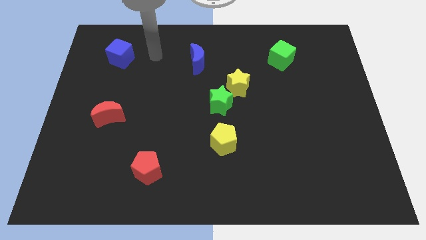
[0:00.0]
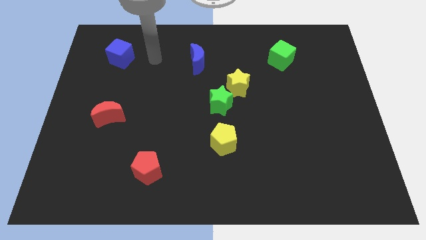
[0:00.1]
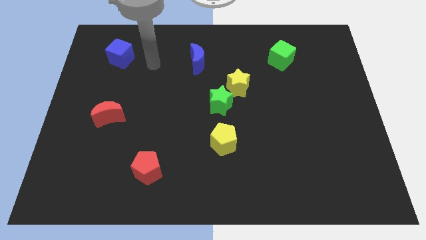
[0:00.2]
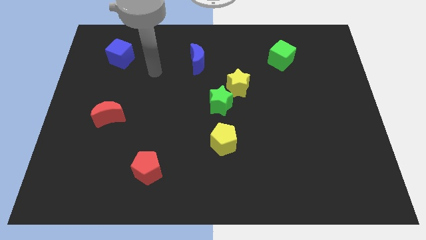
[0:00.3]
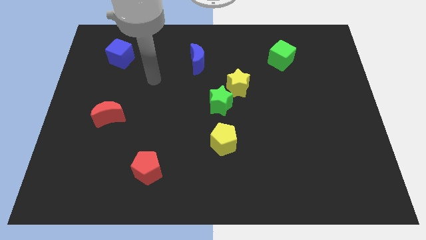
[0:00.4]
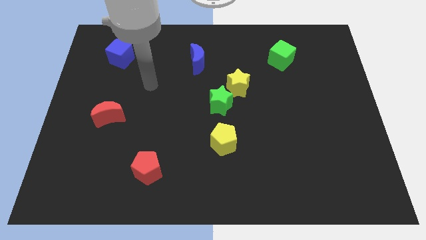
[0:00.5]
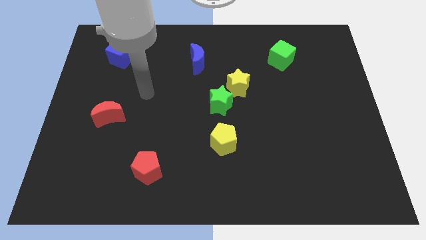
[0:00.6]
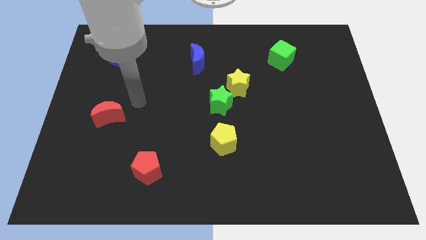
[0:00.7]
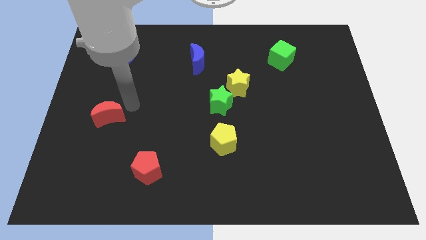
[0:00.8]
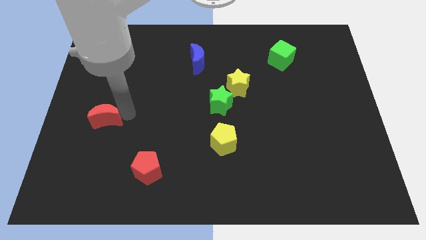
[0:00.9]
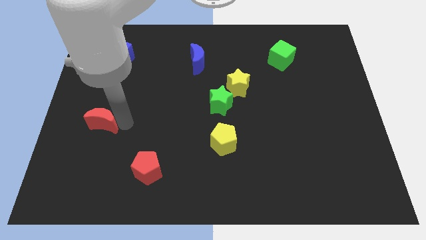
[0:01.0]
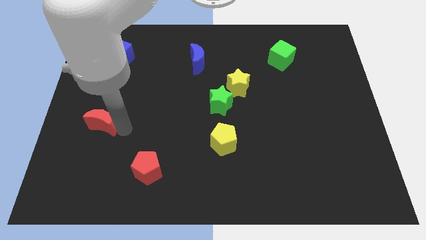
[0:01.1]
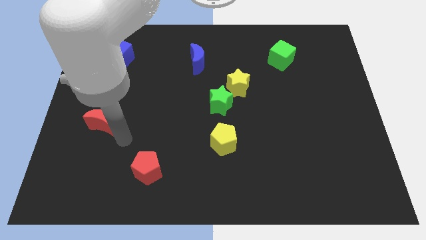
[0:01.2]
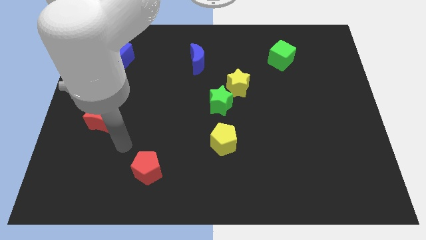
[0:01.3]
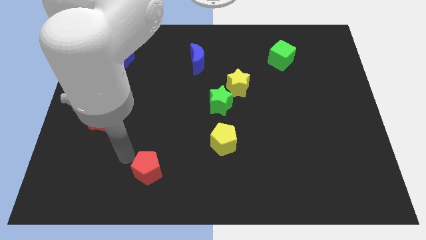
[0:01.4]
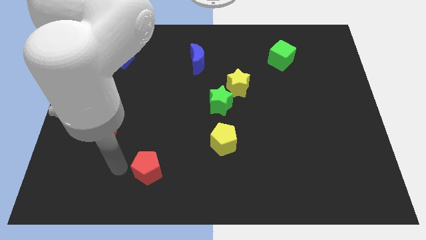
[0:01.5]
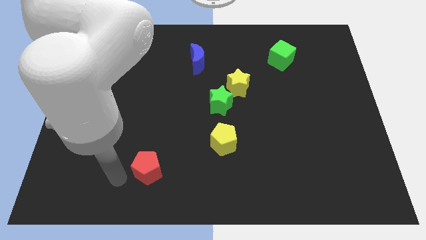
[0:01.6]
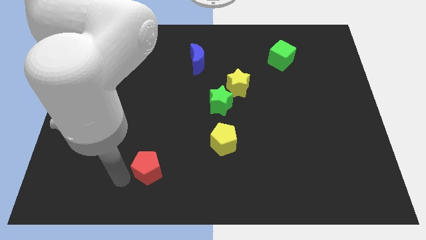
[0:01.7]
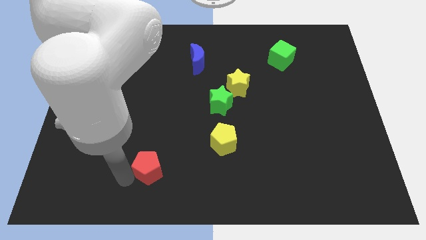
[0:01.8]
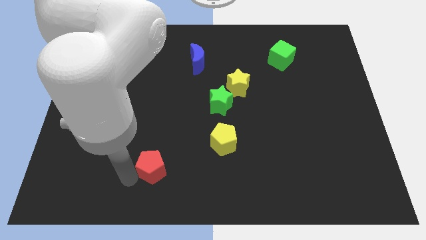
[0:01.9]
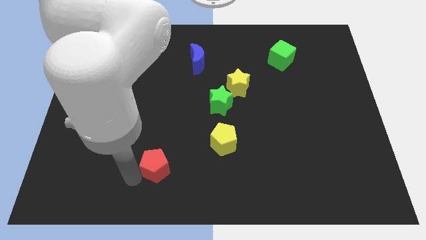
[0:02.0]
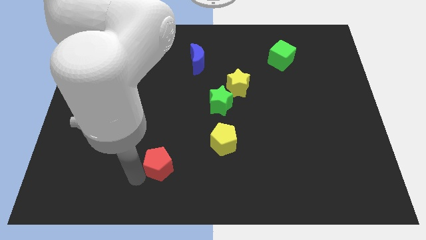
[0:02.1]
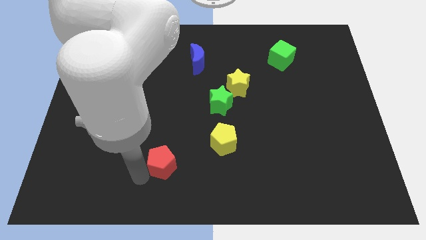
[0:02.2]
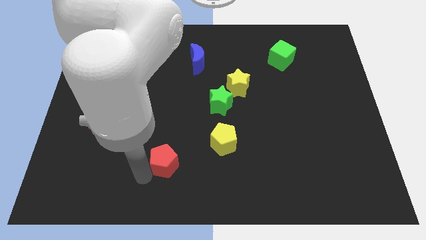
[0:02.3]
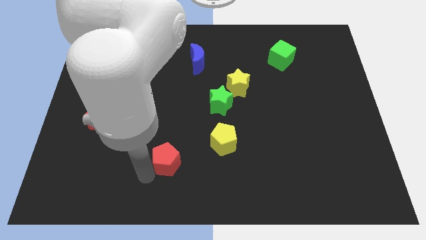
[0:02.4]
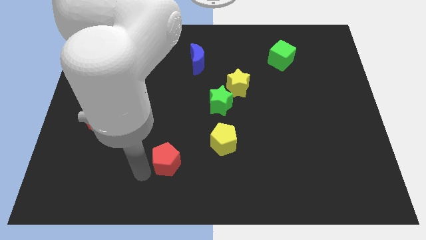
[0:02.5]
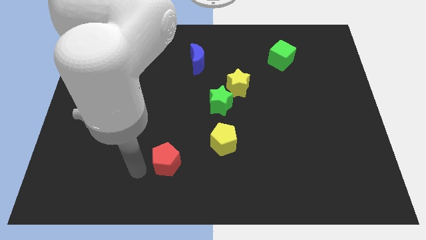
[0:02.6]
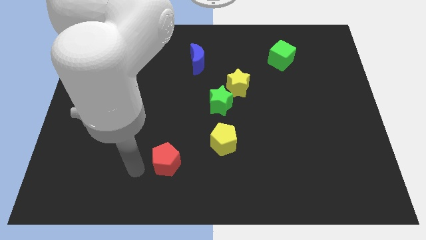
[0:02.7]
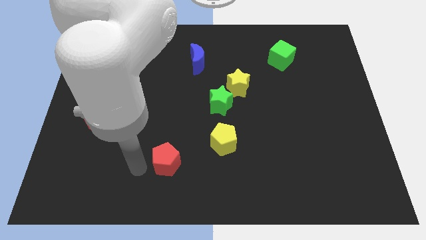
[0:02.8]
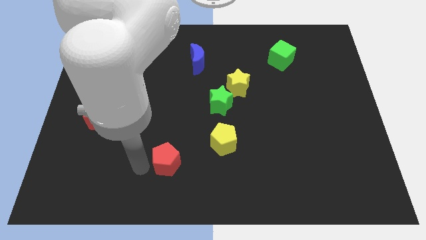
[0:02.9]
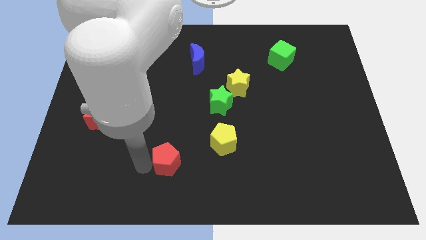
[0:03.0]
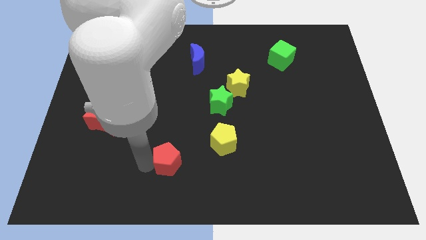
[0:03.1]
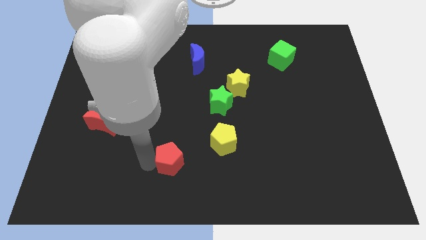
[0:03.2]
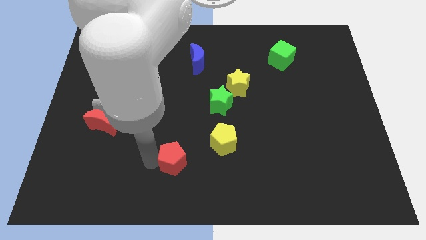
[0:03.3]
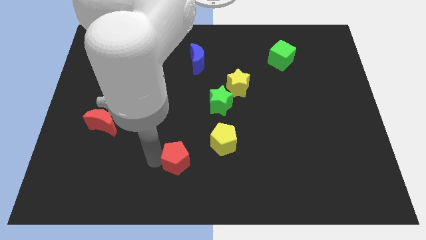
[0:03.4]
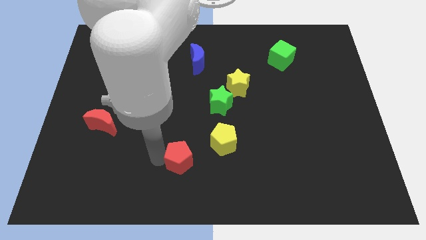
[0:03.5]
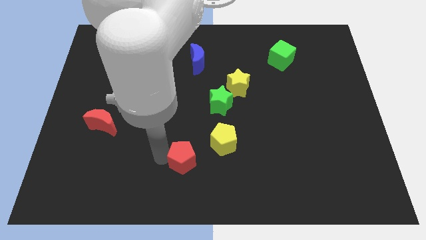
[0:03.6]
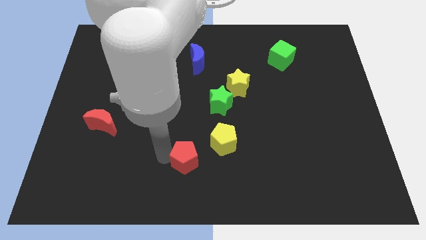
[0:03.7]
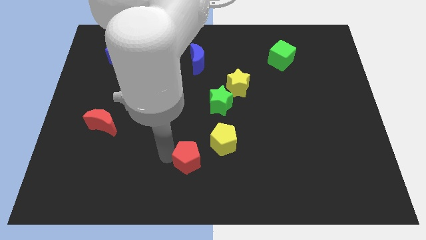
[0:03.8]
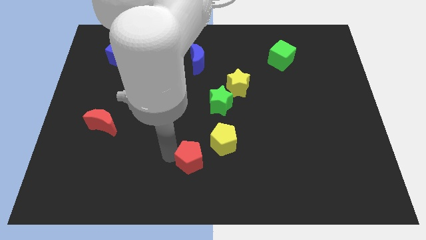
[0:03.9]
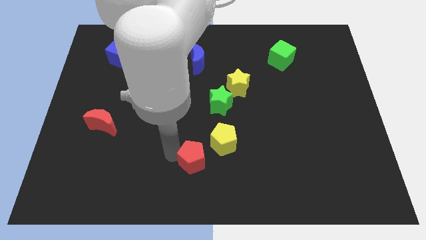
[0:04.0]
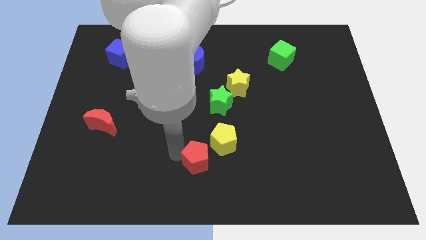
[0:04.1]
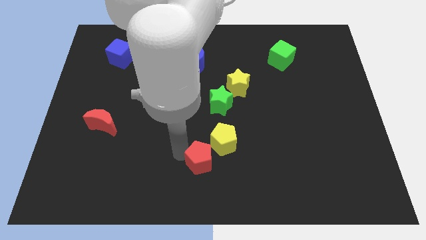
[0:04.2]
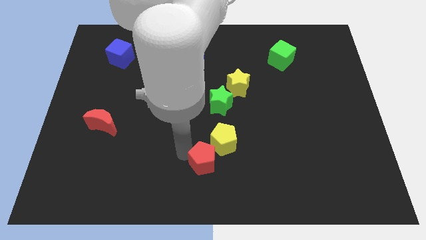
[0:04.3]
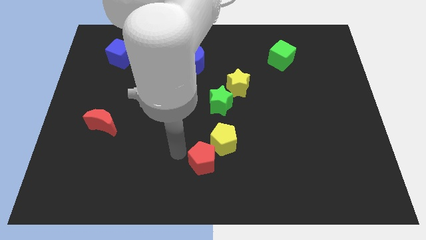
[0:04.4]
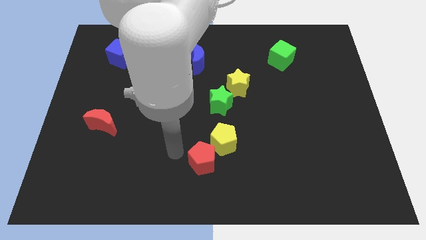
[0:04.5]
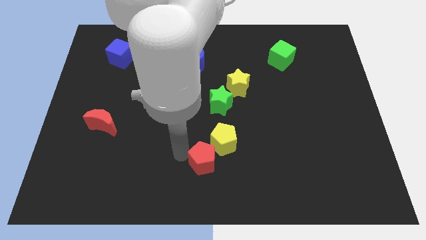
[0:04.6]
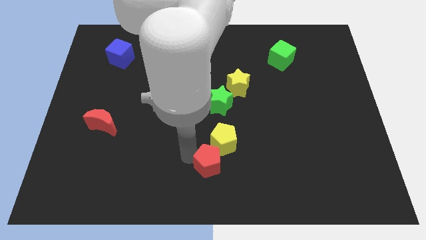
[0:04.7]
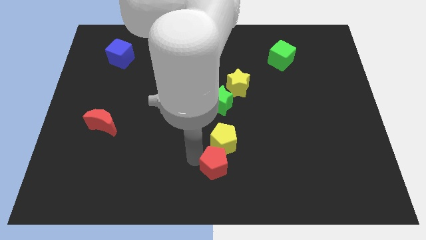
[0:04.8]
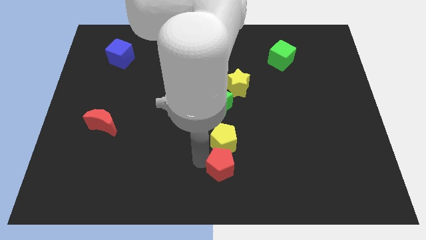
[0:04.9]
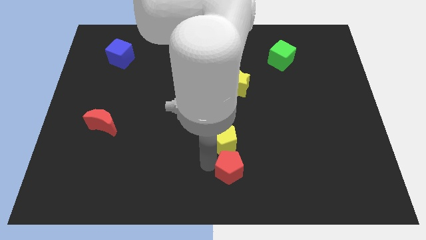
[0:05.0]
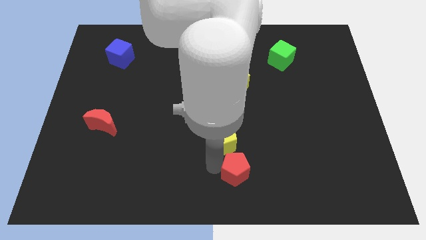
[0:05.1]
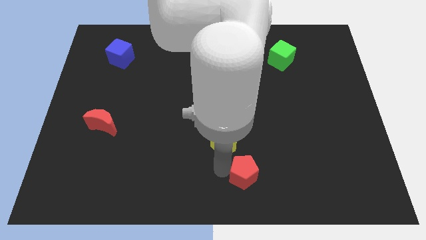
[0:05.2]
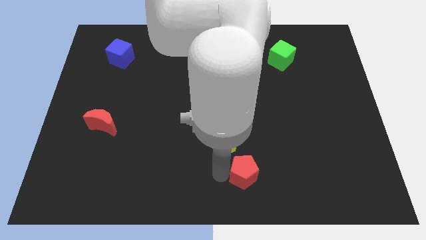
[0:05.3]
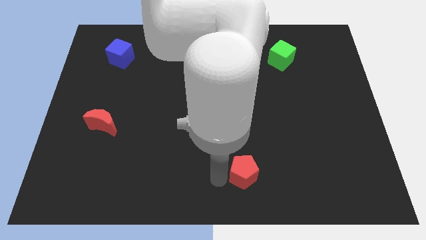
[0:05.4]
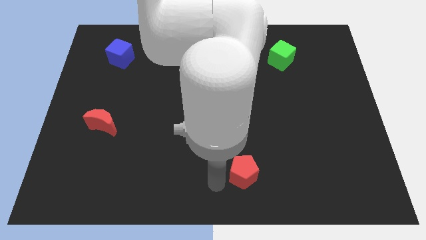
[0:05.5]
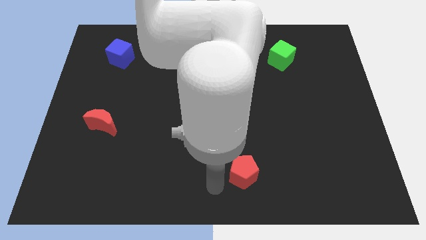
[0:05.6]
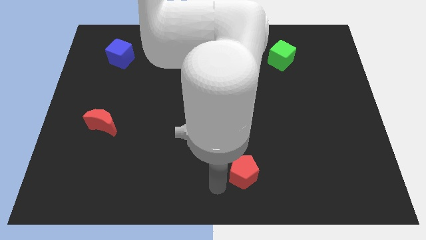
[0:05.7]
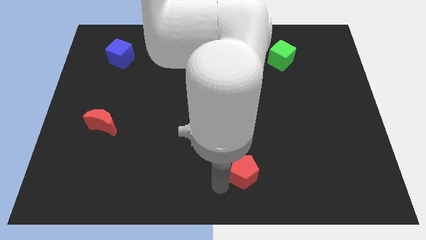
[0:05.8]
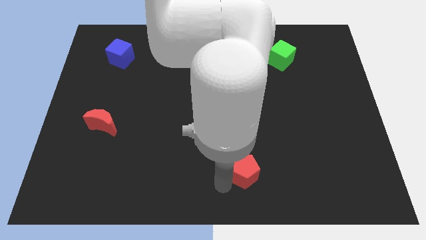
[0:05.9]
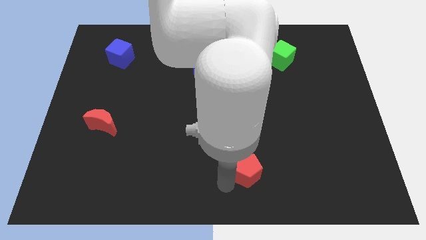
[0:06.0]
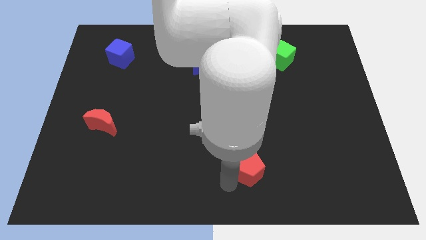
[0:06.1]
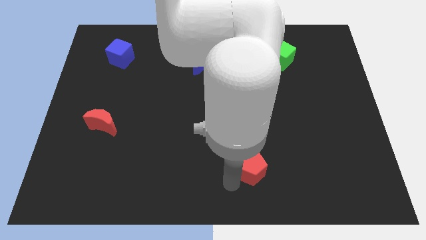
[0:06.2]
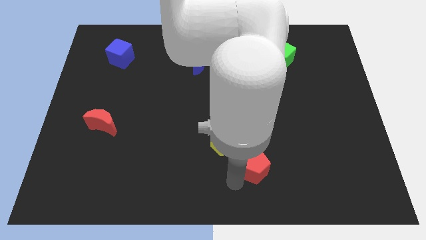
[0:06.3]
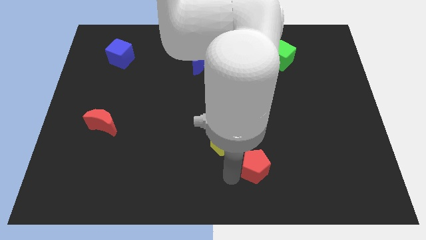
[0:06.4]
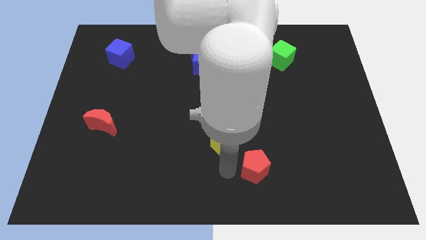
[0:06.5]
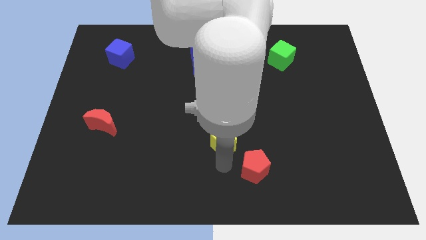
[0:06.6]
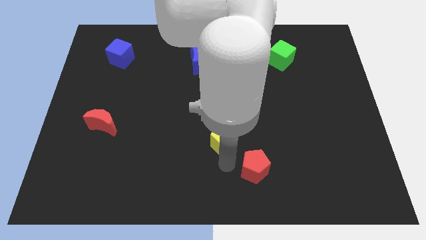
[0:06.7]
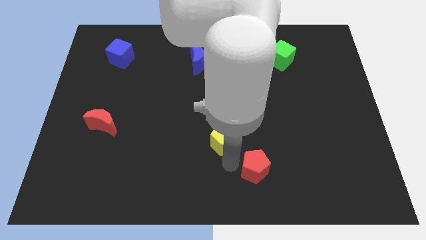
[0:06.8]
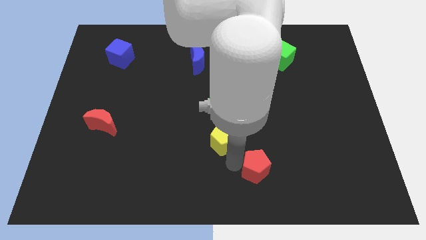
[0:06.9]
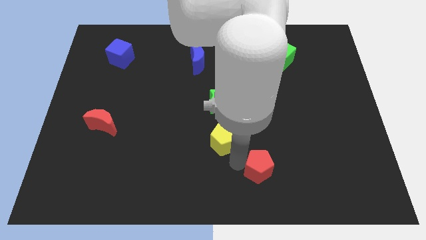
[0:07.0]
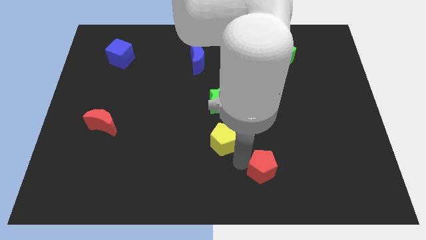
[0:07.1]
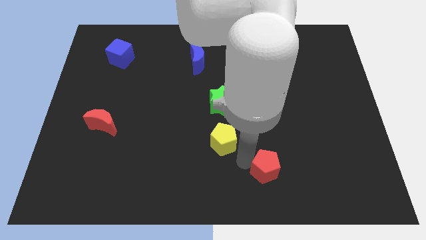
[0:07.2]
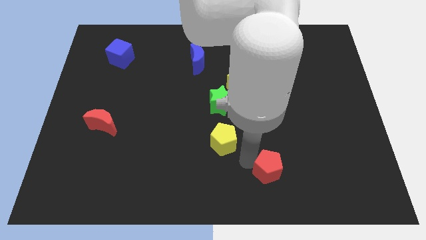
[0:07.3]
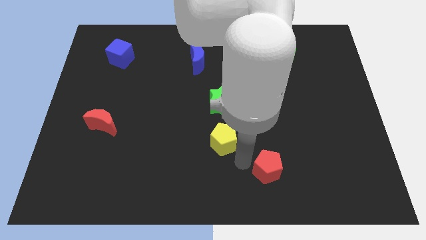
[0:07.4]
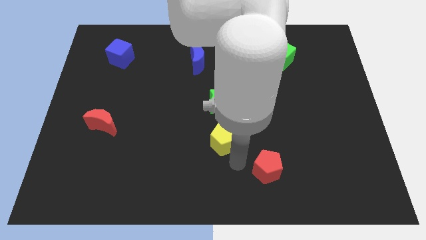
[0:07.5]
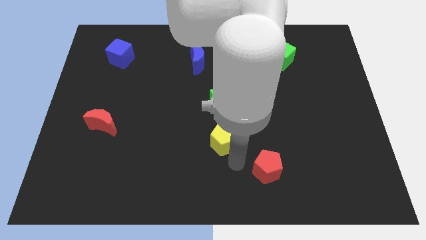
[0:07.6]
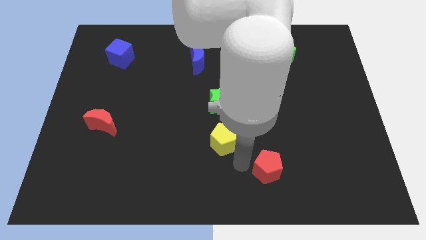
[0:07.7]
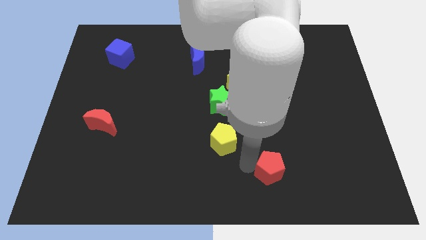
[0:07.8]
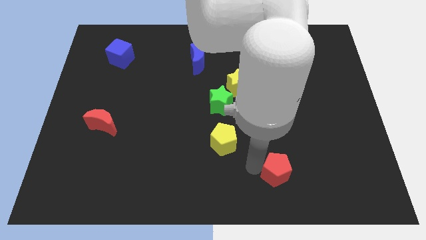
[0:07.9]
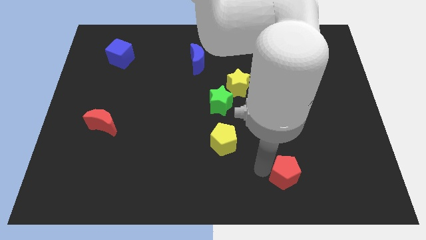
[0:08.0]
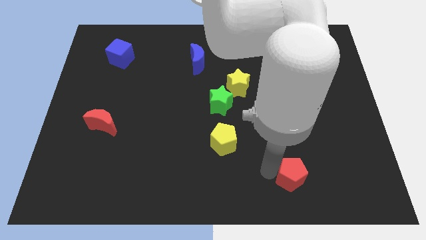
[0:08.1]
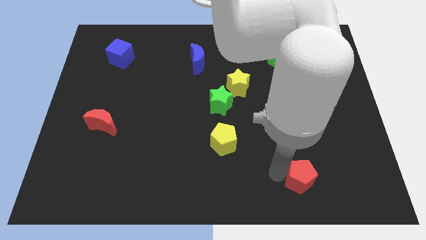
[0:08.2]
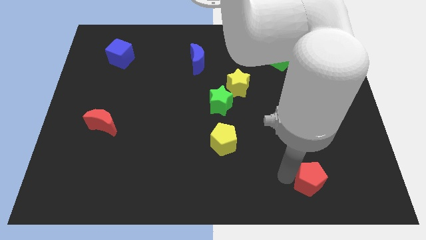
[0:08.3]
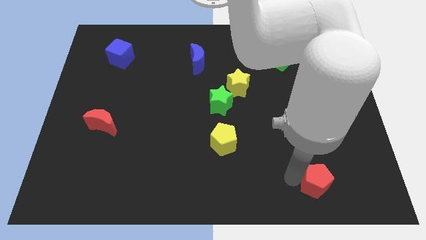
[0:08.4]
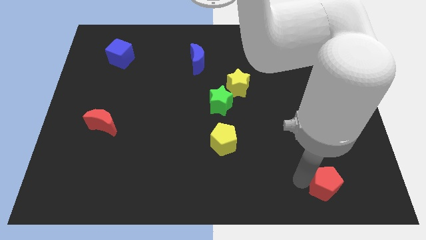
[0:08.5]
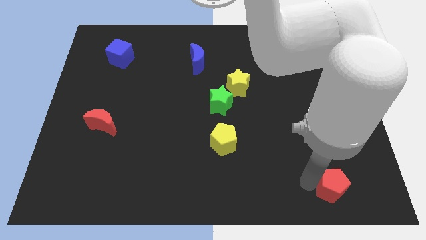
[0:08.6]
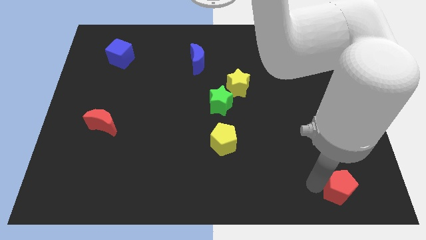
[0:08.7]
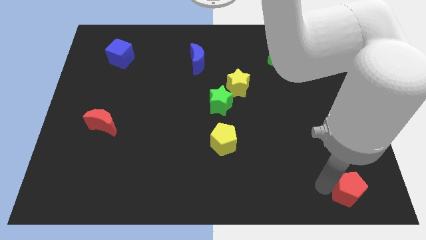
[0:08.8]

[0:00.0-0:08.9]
move the red pentagon to the lower right corner
